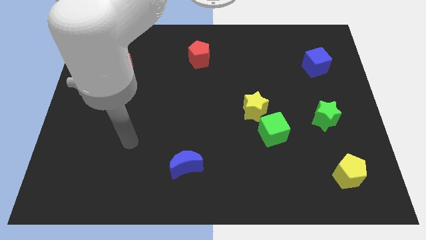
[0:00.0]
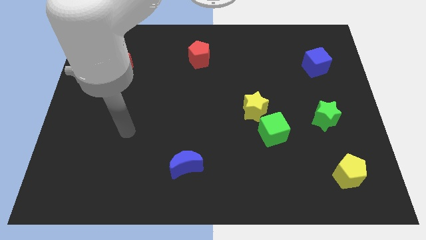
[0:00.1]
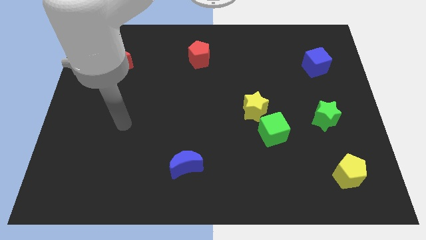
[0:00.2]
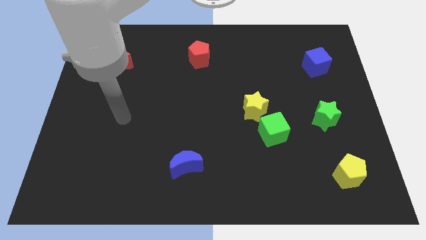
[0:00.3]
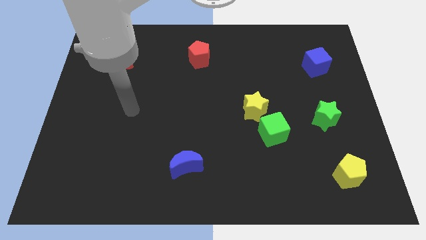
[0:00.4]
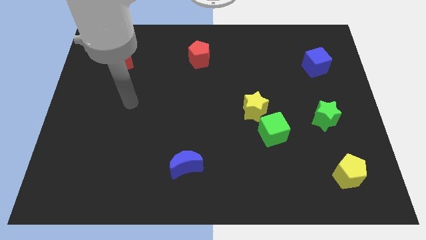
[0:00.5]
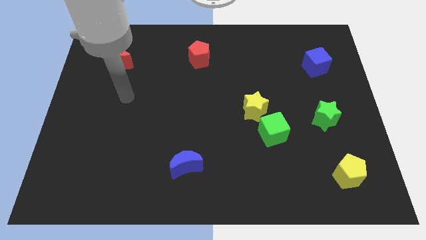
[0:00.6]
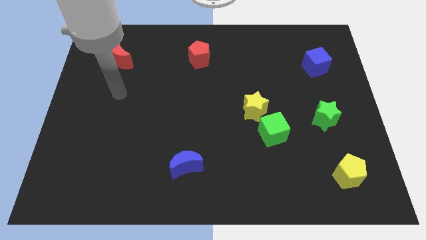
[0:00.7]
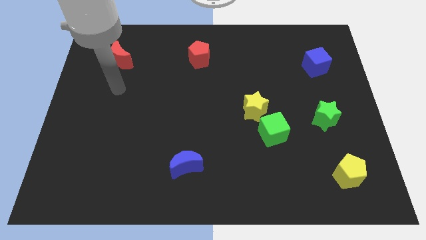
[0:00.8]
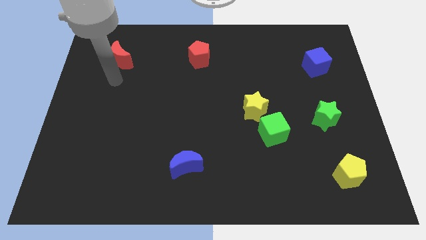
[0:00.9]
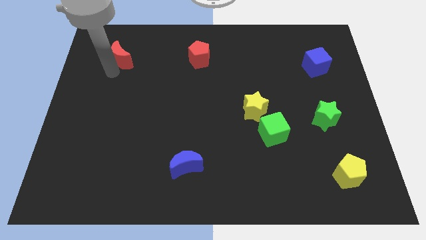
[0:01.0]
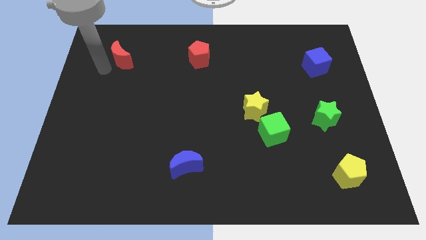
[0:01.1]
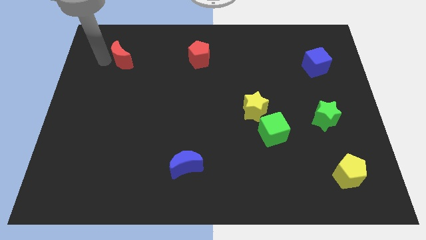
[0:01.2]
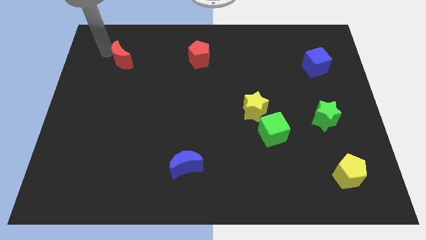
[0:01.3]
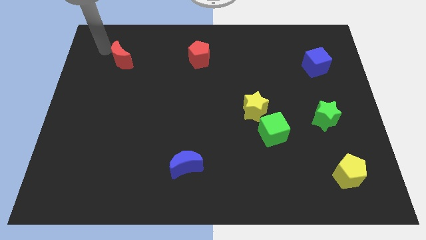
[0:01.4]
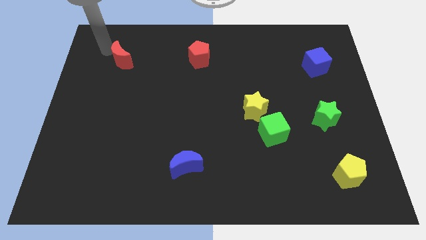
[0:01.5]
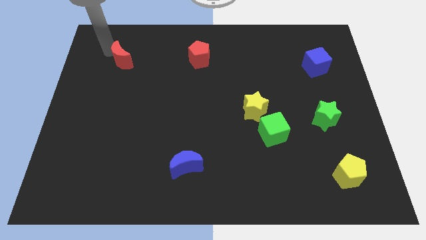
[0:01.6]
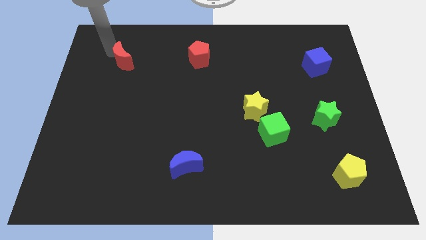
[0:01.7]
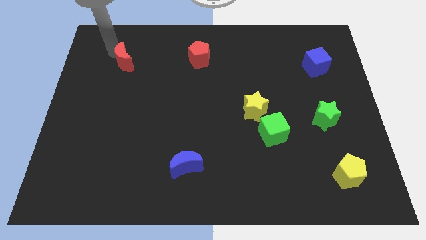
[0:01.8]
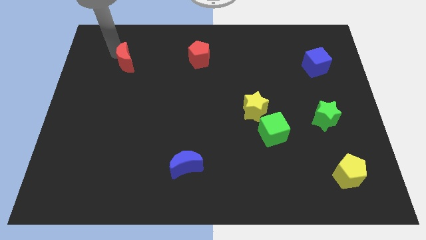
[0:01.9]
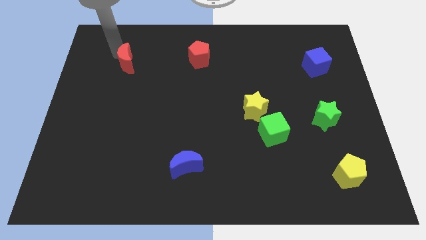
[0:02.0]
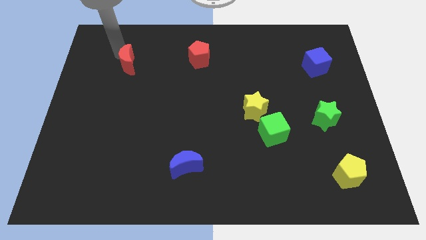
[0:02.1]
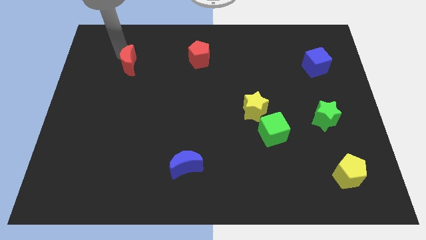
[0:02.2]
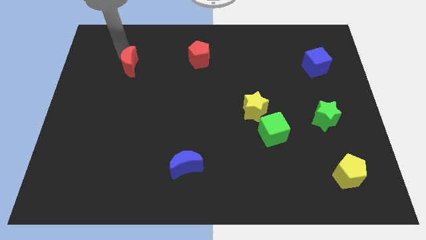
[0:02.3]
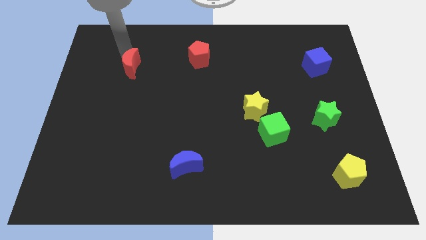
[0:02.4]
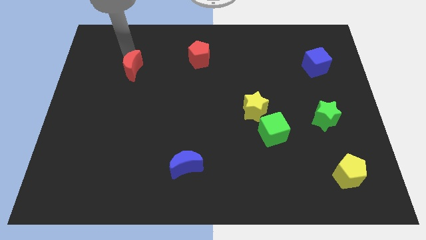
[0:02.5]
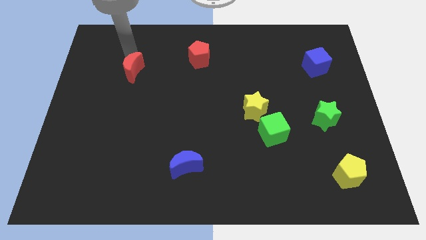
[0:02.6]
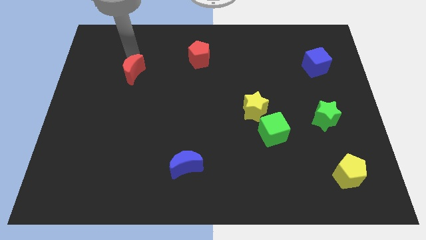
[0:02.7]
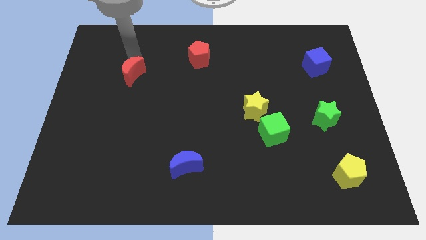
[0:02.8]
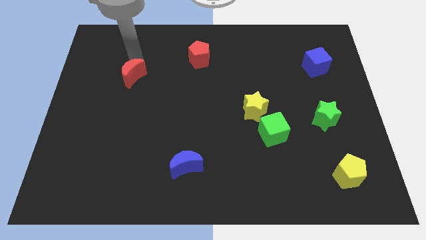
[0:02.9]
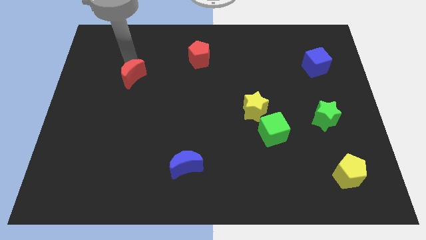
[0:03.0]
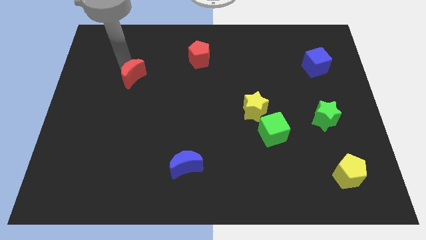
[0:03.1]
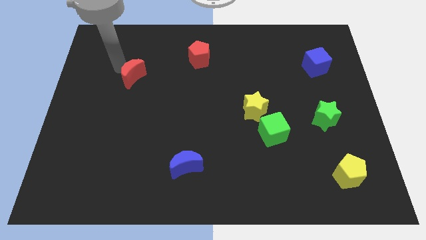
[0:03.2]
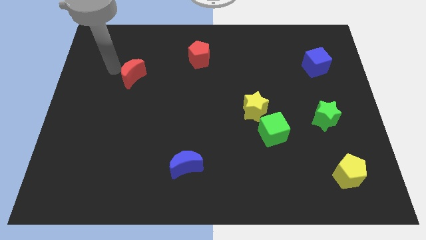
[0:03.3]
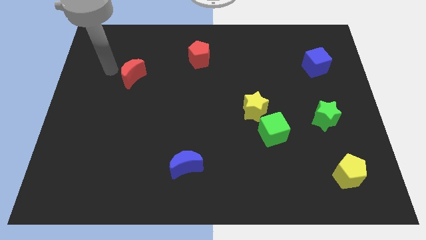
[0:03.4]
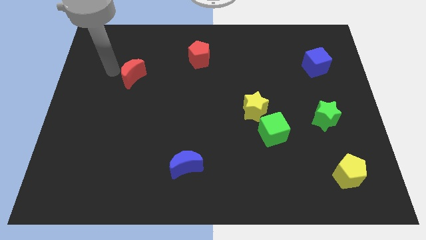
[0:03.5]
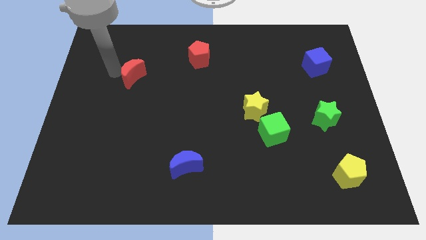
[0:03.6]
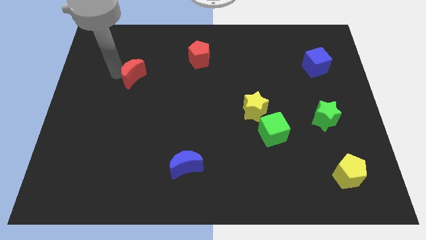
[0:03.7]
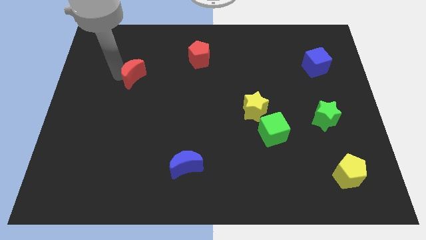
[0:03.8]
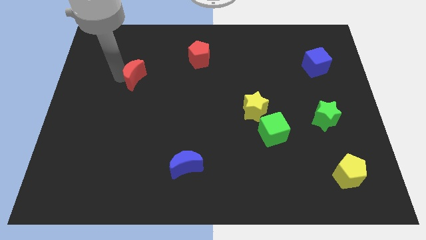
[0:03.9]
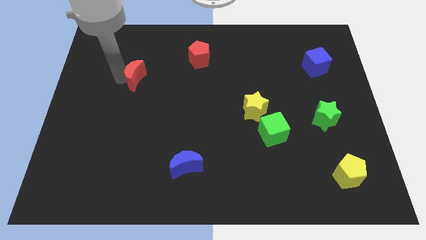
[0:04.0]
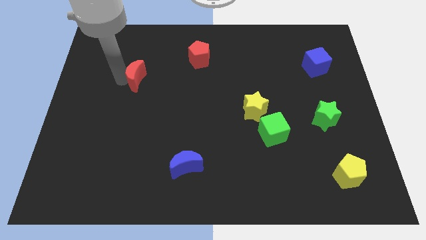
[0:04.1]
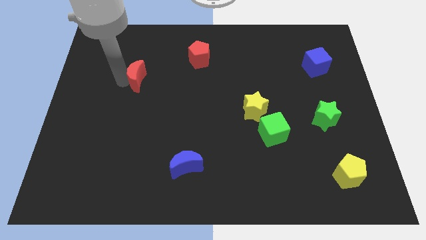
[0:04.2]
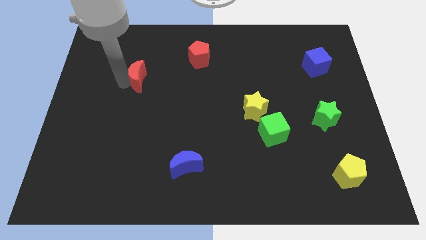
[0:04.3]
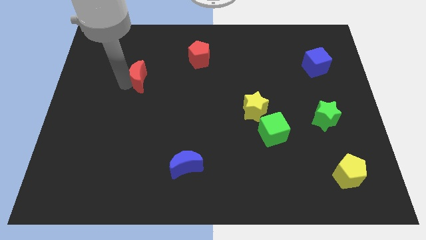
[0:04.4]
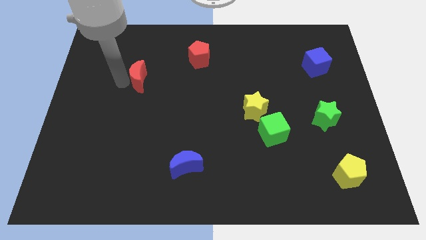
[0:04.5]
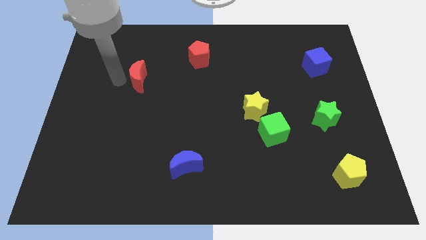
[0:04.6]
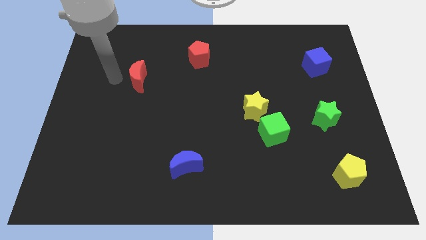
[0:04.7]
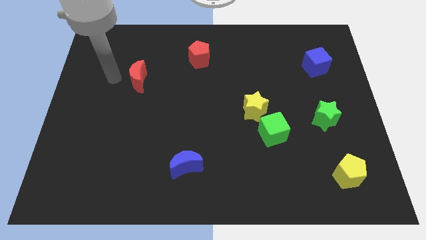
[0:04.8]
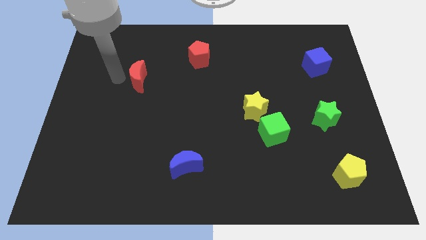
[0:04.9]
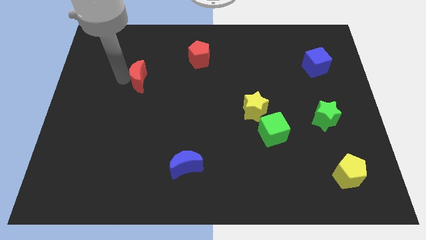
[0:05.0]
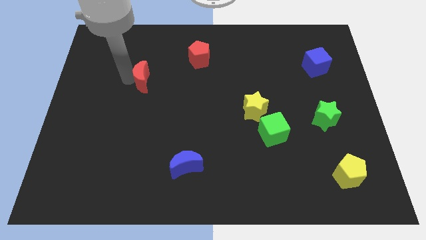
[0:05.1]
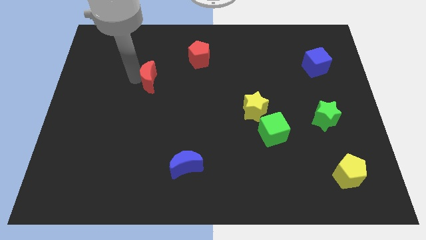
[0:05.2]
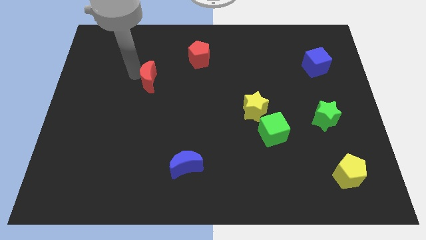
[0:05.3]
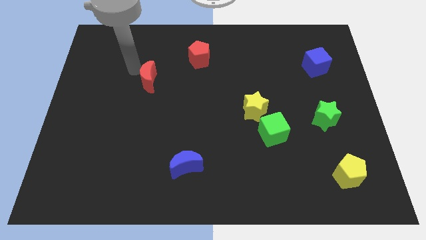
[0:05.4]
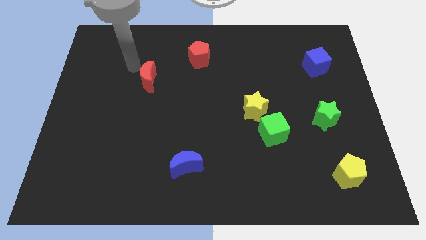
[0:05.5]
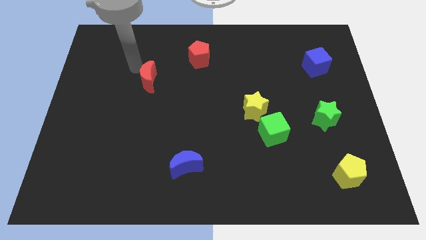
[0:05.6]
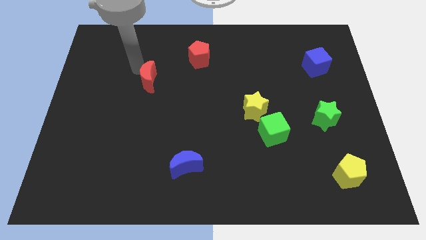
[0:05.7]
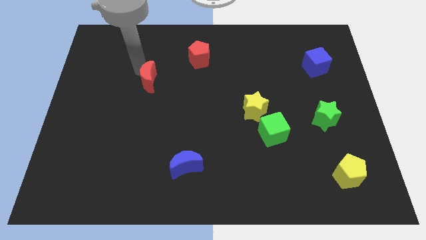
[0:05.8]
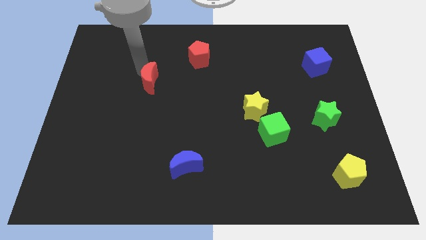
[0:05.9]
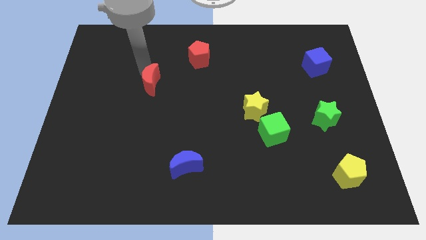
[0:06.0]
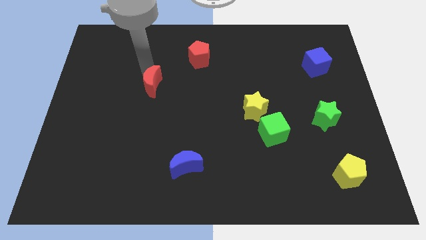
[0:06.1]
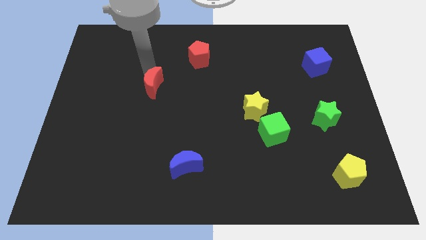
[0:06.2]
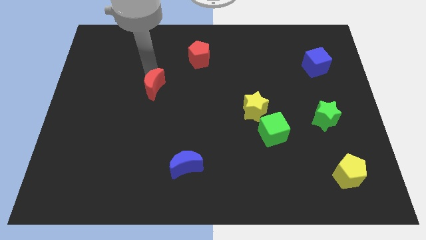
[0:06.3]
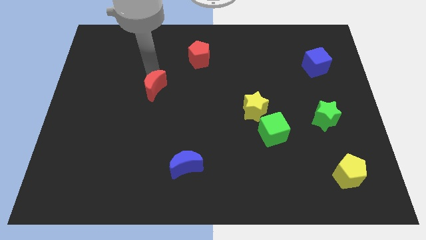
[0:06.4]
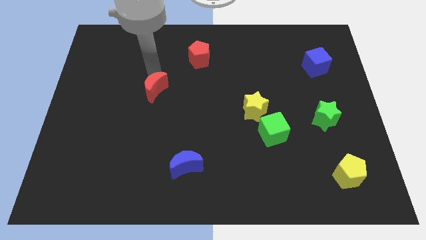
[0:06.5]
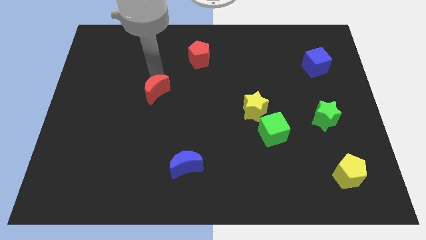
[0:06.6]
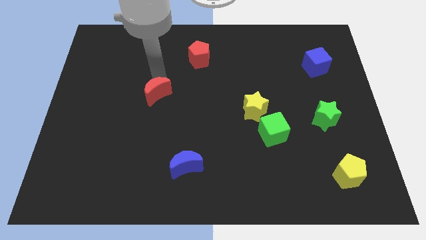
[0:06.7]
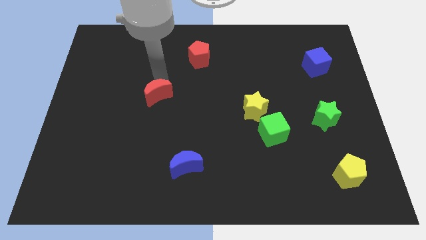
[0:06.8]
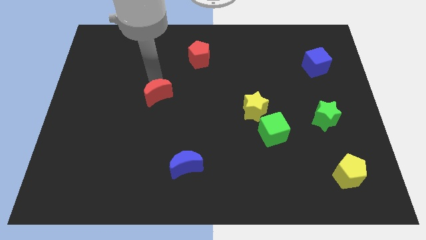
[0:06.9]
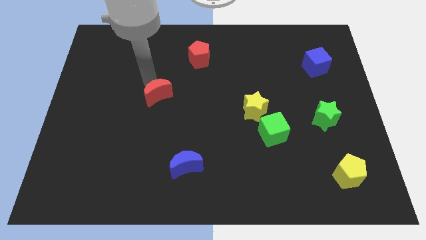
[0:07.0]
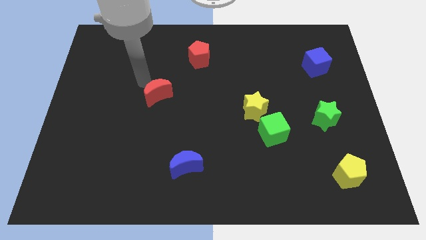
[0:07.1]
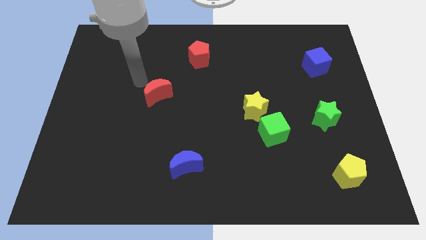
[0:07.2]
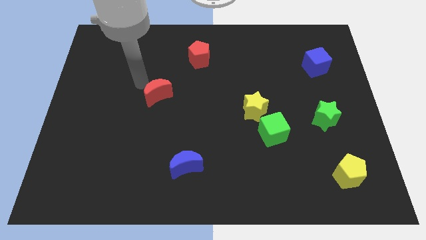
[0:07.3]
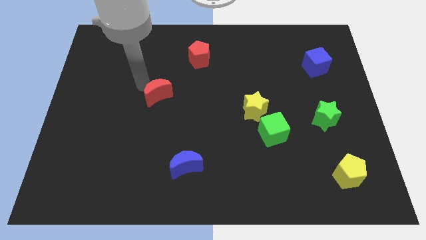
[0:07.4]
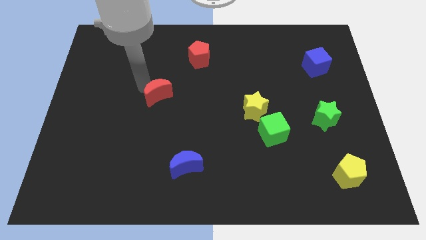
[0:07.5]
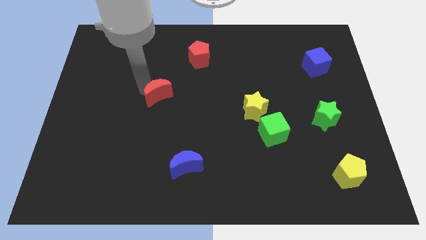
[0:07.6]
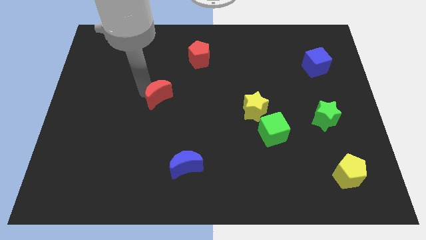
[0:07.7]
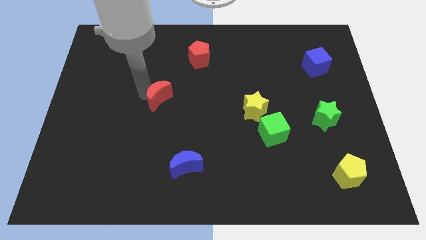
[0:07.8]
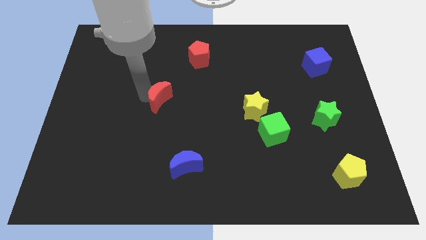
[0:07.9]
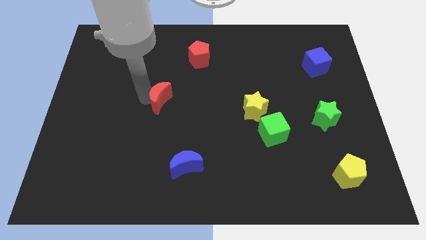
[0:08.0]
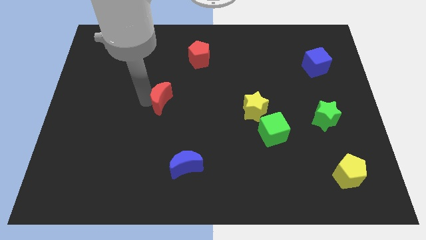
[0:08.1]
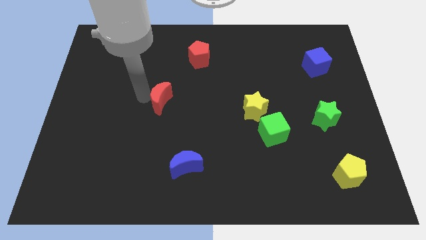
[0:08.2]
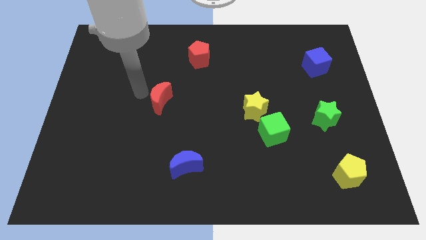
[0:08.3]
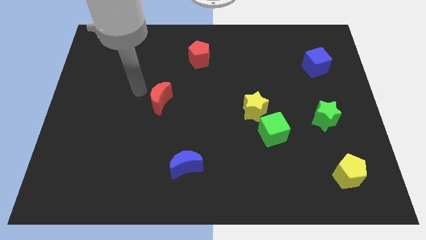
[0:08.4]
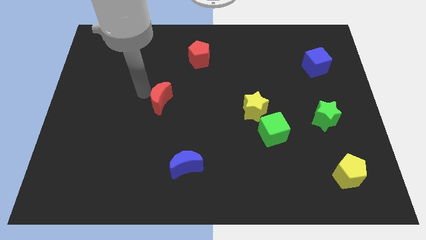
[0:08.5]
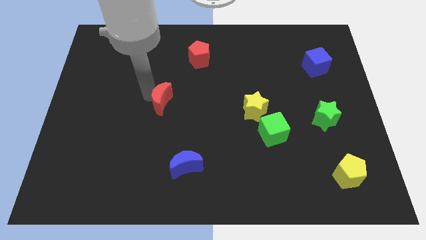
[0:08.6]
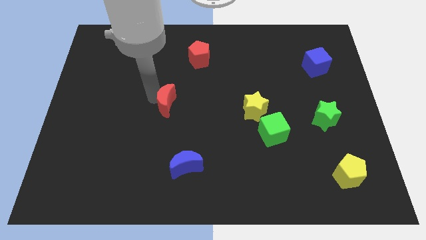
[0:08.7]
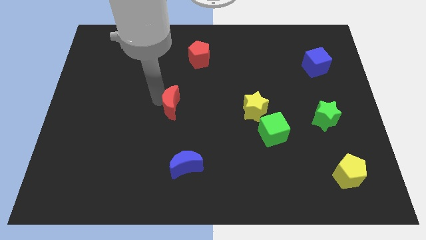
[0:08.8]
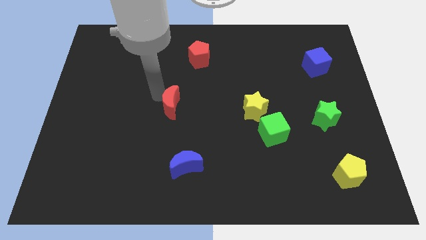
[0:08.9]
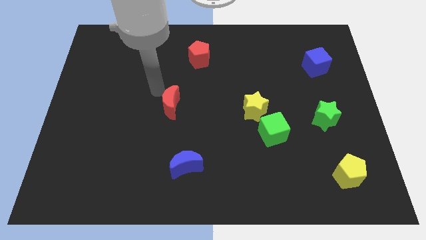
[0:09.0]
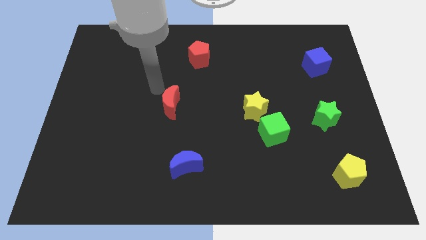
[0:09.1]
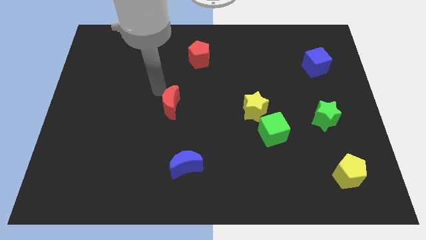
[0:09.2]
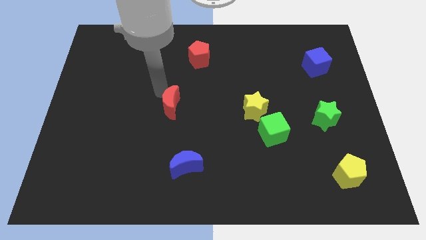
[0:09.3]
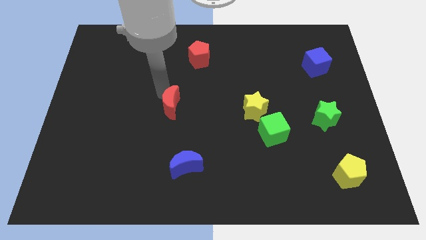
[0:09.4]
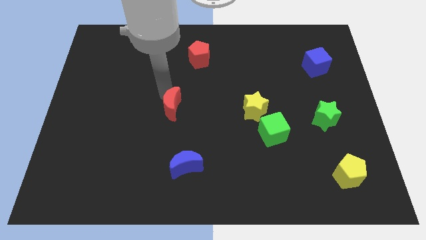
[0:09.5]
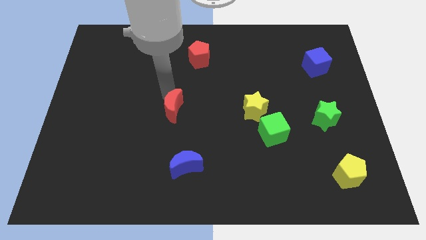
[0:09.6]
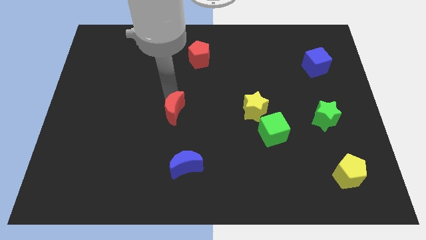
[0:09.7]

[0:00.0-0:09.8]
push the red moon above the blue moon
